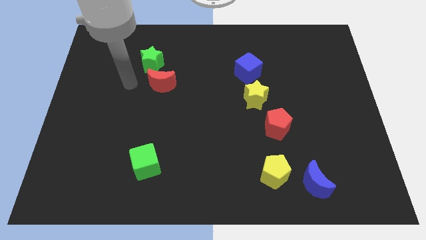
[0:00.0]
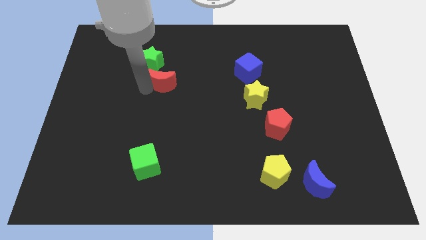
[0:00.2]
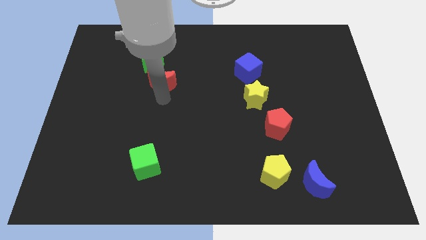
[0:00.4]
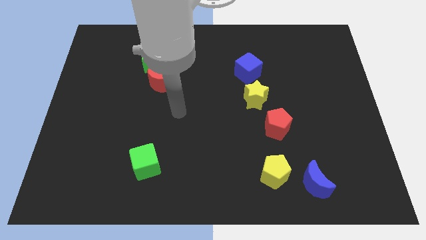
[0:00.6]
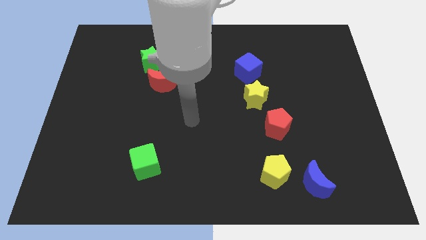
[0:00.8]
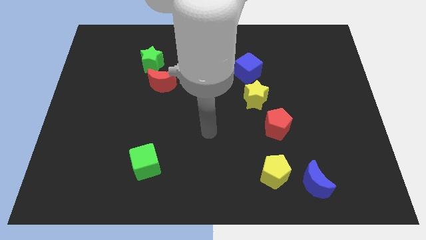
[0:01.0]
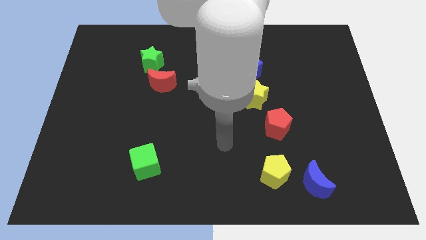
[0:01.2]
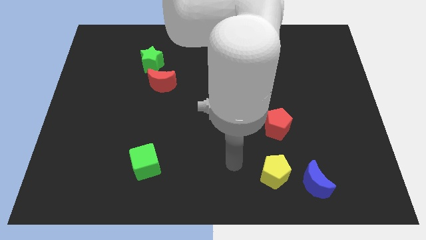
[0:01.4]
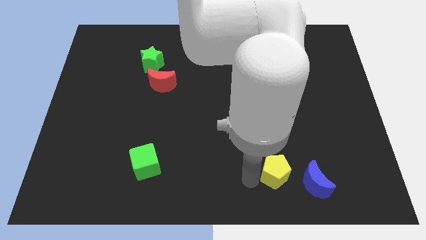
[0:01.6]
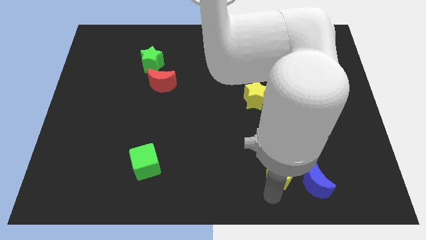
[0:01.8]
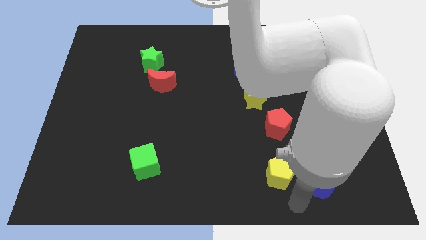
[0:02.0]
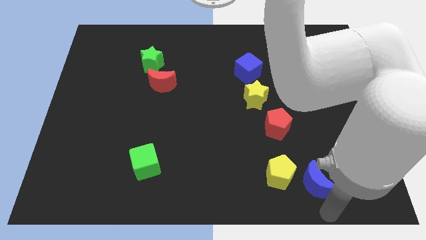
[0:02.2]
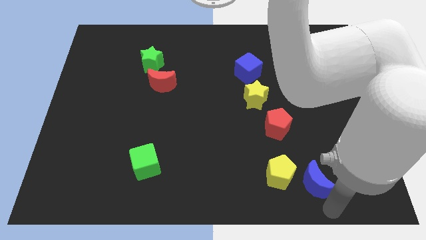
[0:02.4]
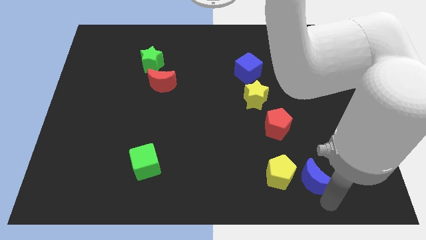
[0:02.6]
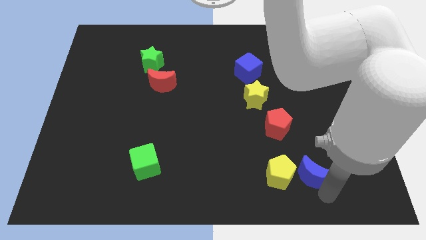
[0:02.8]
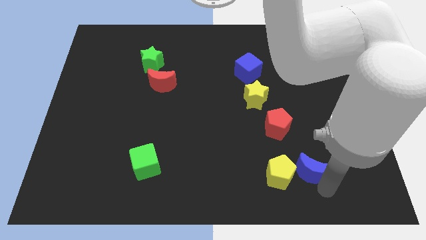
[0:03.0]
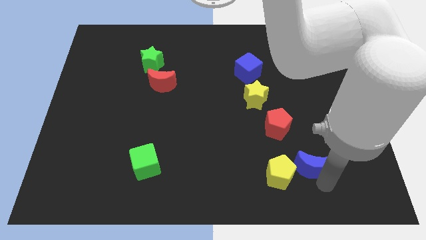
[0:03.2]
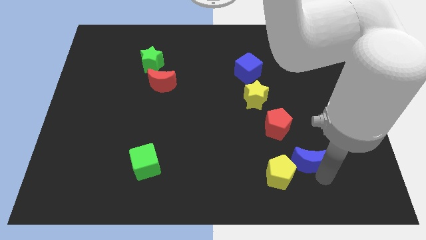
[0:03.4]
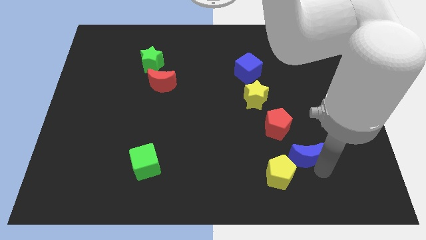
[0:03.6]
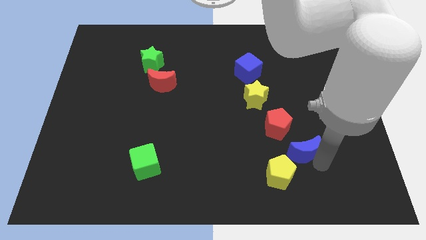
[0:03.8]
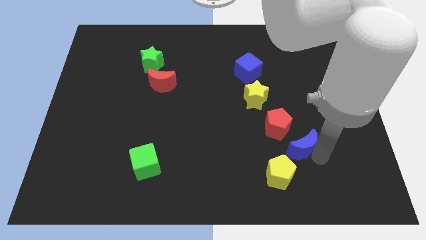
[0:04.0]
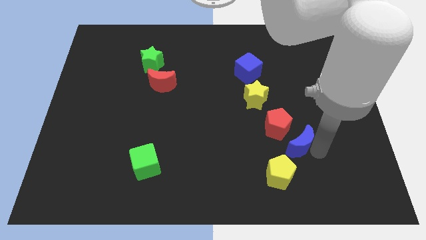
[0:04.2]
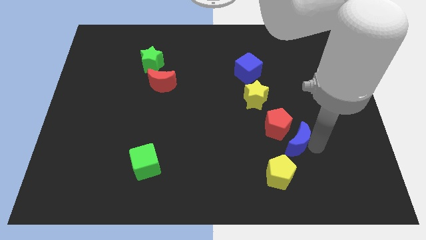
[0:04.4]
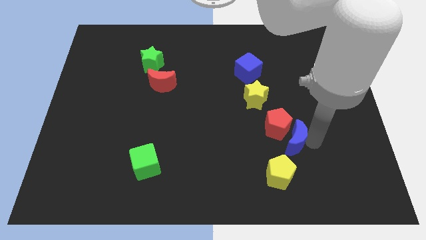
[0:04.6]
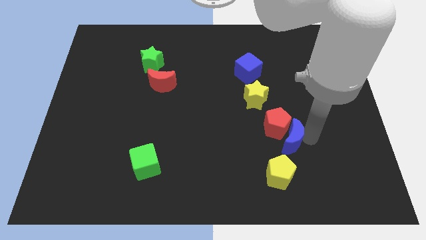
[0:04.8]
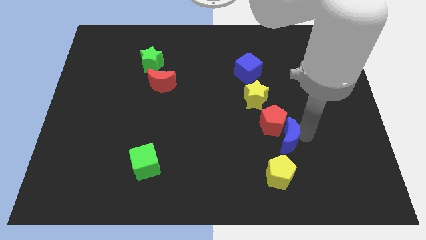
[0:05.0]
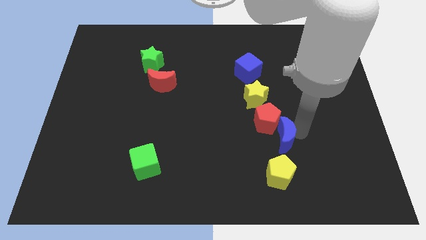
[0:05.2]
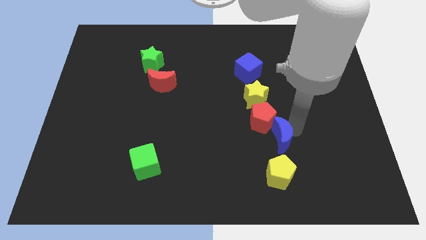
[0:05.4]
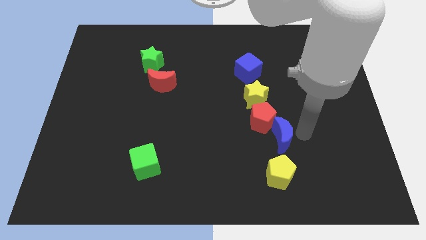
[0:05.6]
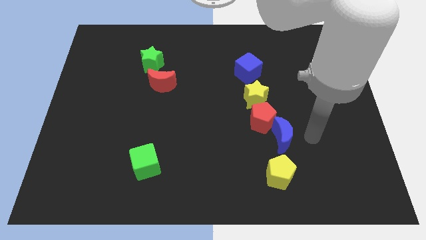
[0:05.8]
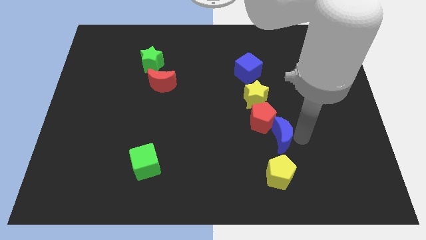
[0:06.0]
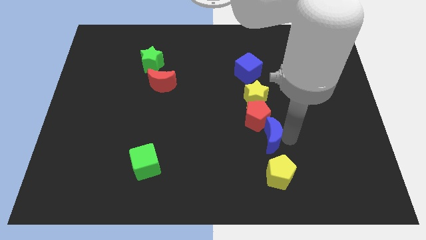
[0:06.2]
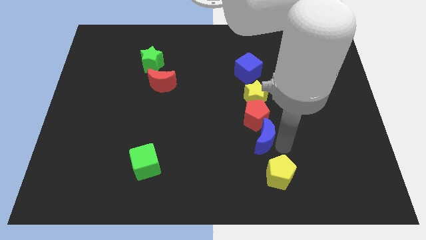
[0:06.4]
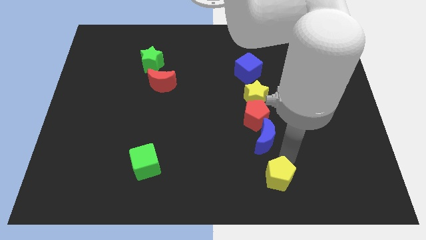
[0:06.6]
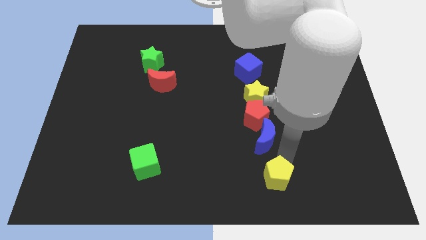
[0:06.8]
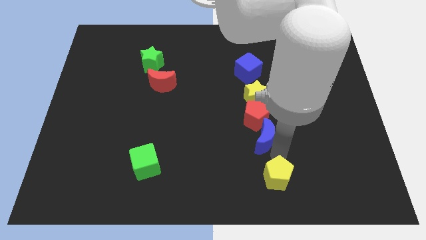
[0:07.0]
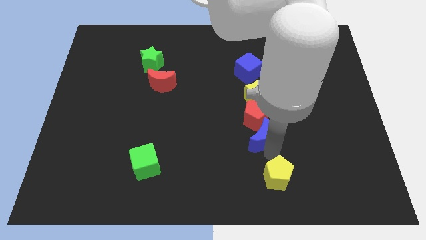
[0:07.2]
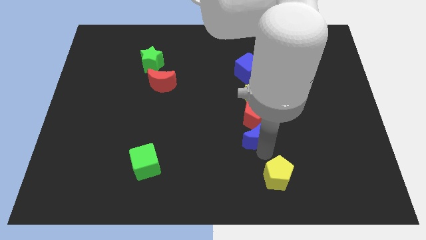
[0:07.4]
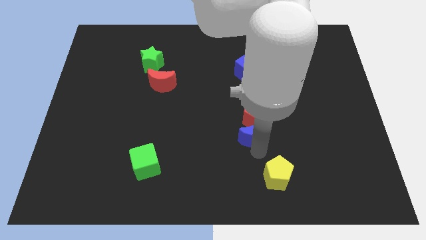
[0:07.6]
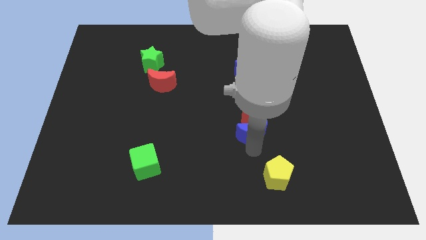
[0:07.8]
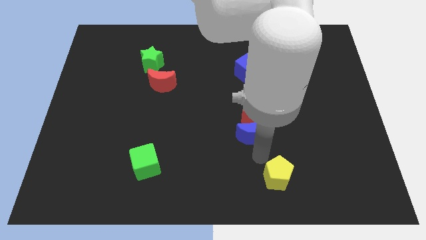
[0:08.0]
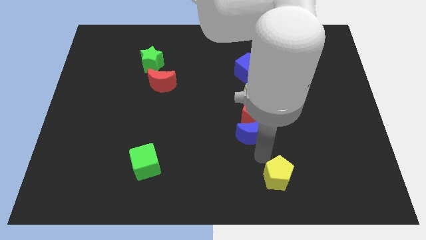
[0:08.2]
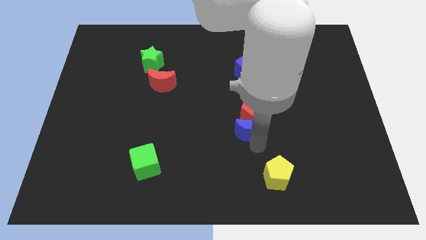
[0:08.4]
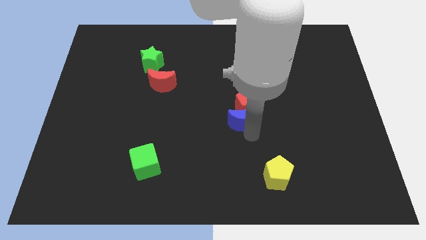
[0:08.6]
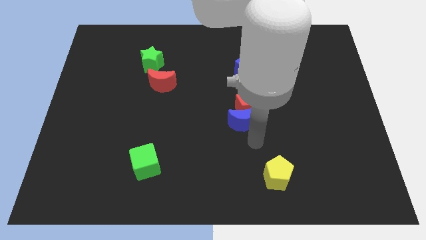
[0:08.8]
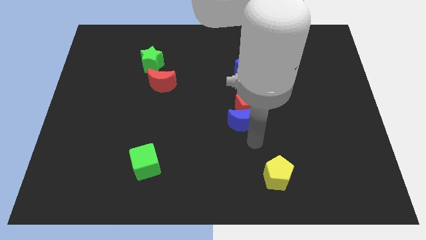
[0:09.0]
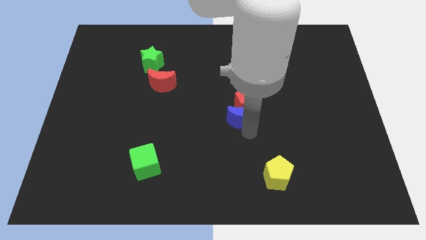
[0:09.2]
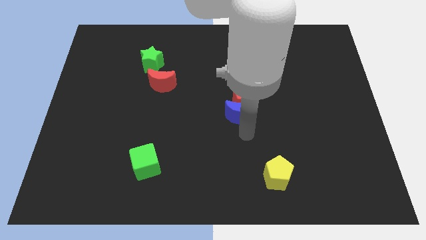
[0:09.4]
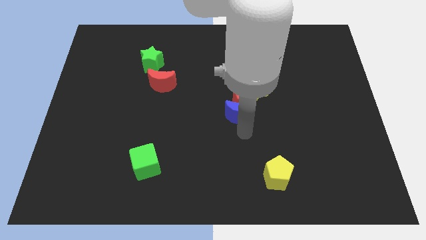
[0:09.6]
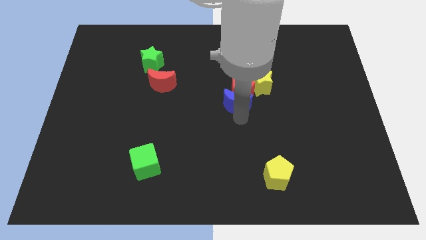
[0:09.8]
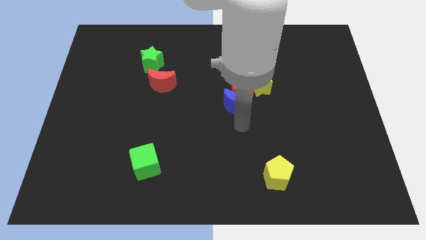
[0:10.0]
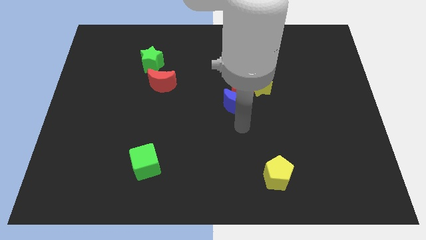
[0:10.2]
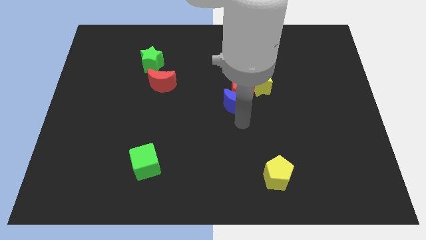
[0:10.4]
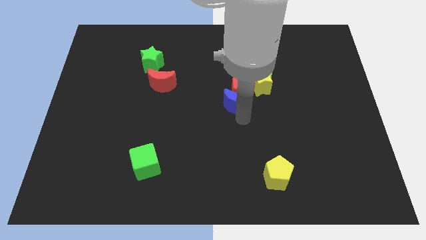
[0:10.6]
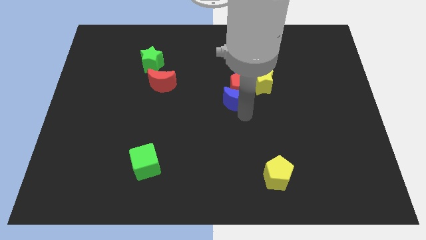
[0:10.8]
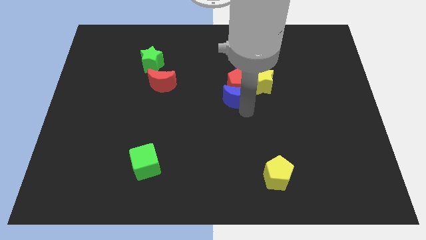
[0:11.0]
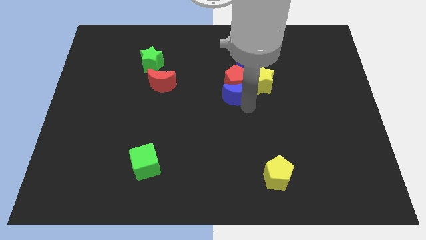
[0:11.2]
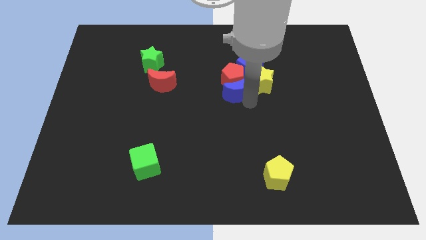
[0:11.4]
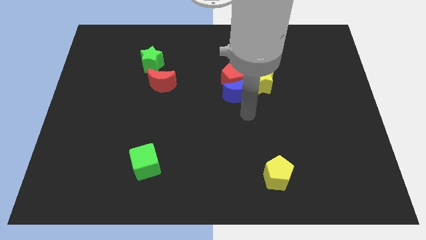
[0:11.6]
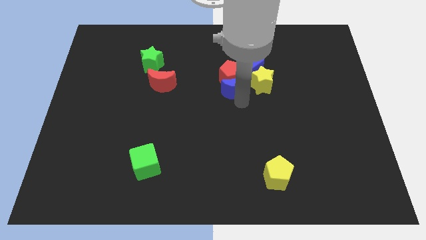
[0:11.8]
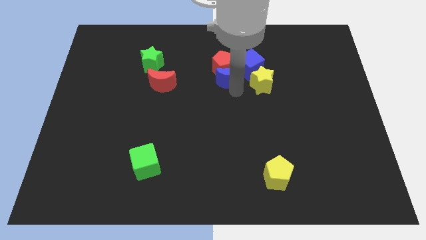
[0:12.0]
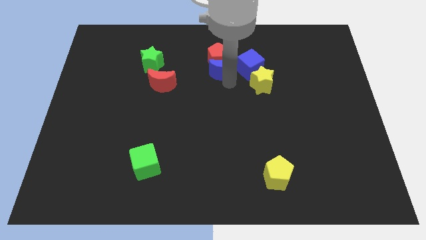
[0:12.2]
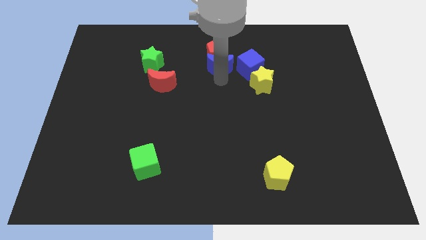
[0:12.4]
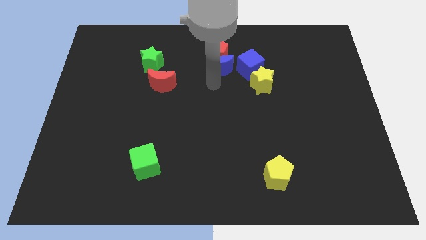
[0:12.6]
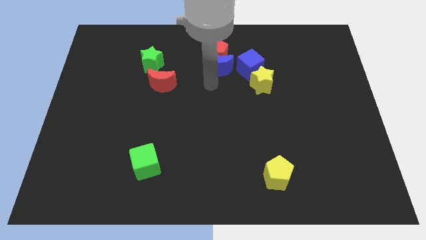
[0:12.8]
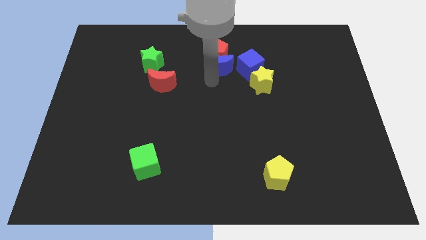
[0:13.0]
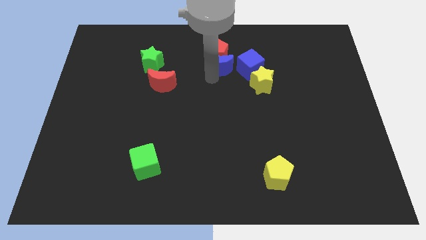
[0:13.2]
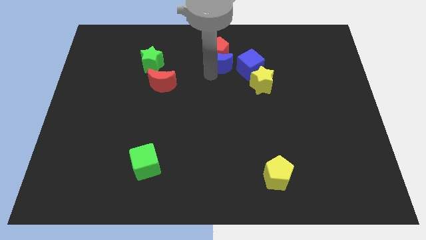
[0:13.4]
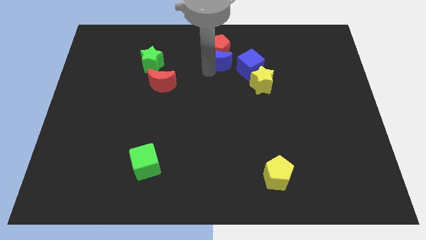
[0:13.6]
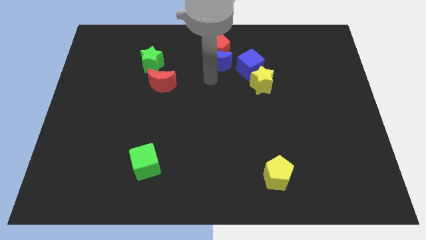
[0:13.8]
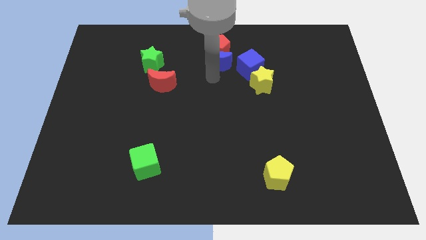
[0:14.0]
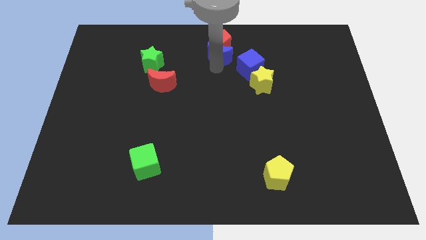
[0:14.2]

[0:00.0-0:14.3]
put the blue moon to the top
